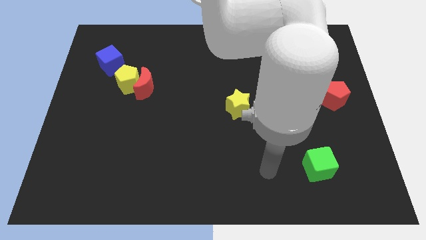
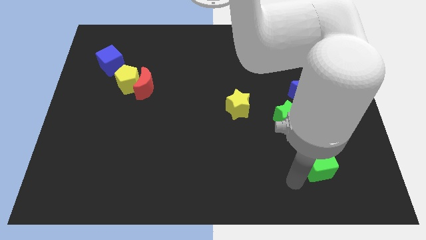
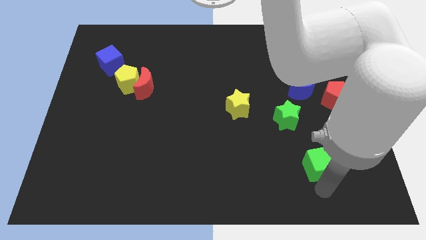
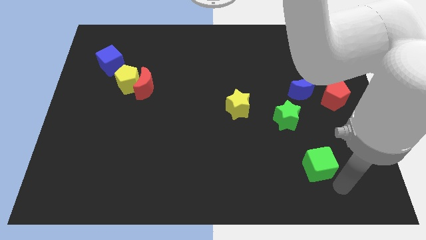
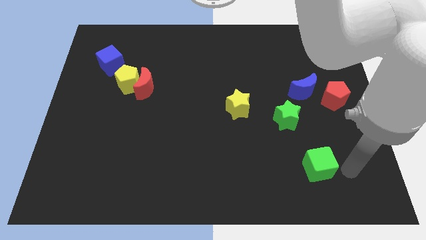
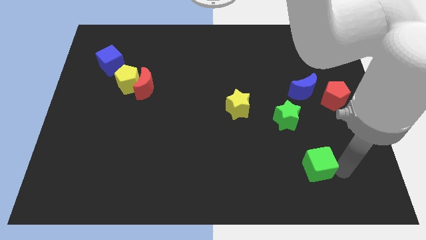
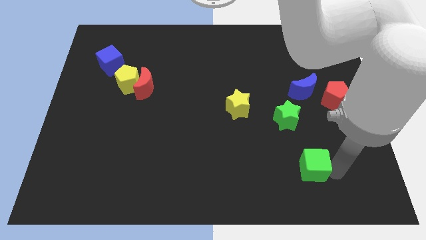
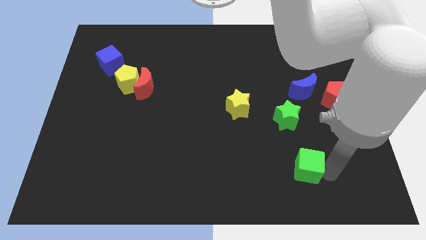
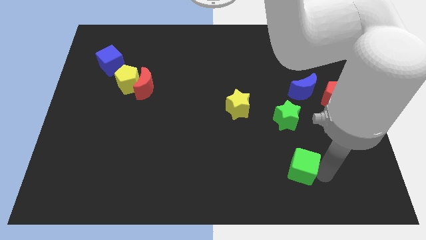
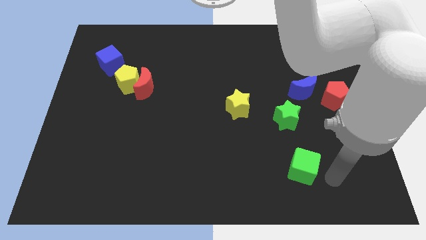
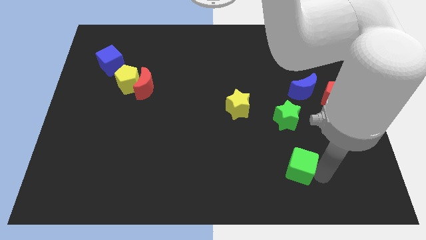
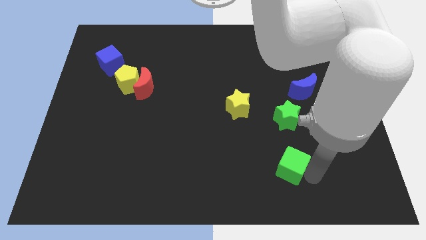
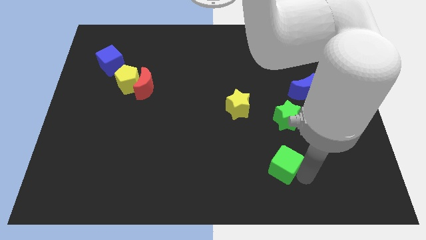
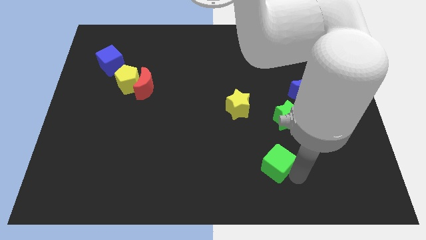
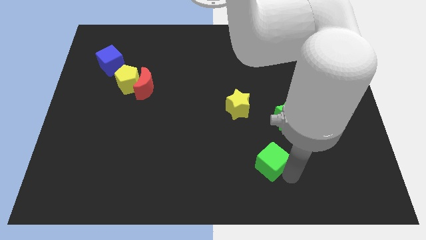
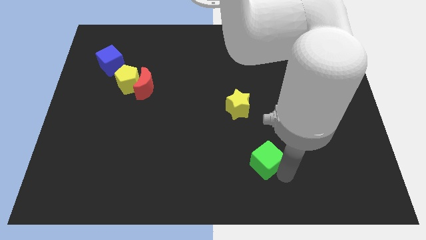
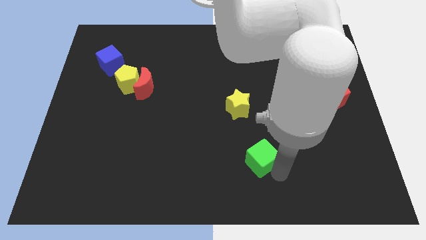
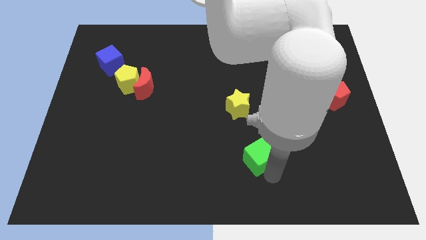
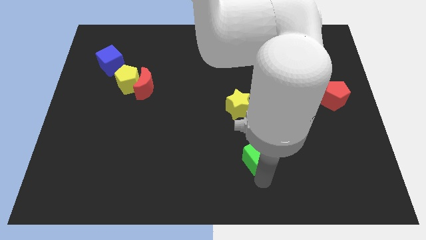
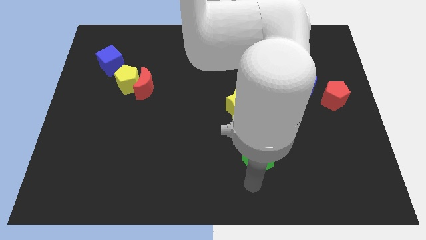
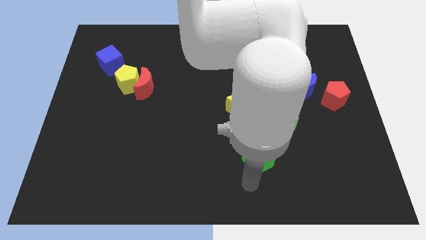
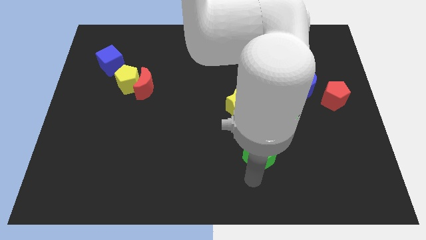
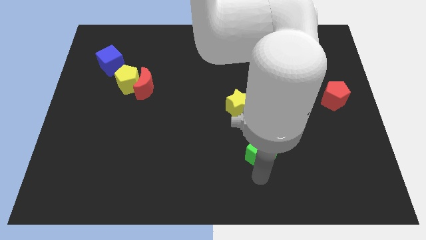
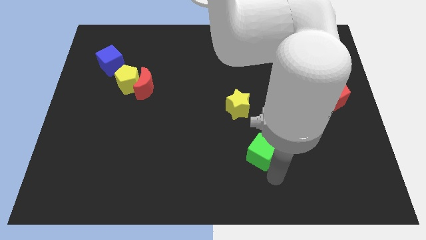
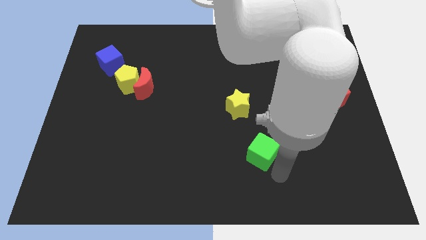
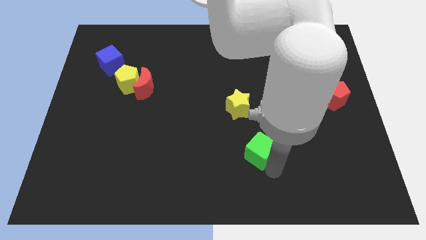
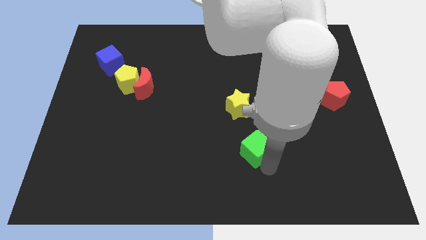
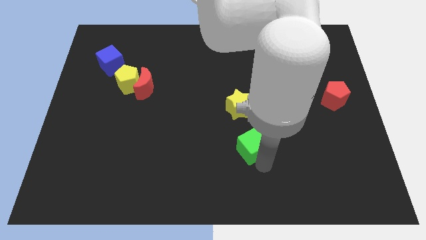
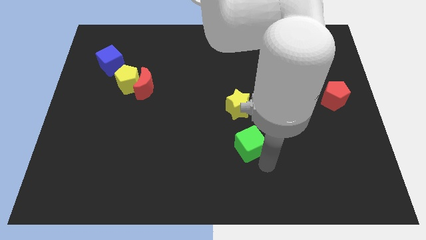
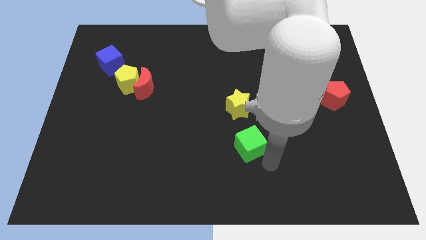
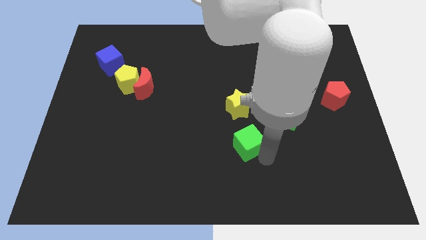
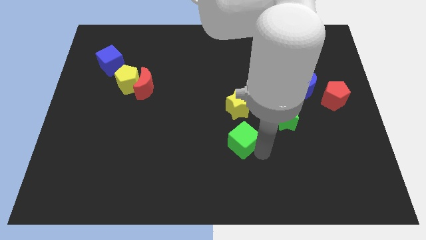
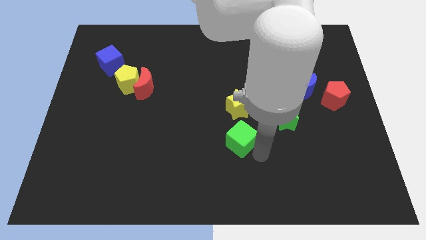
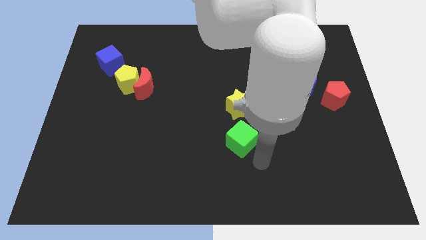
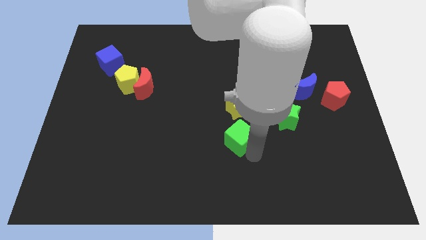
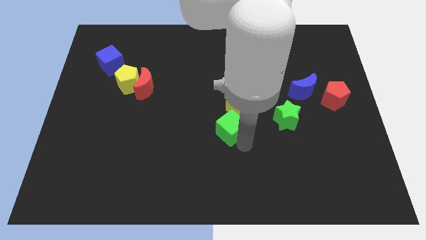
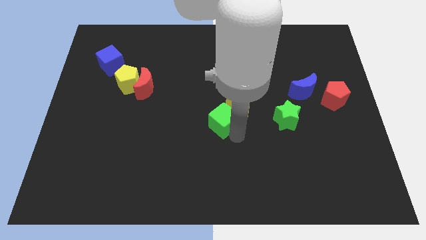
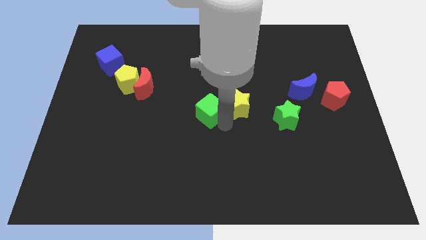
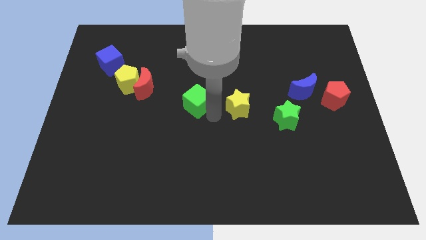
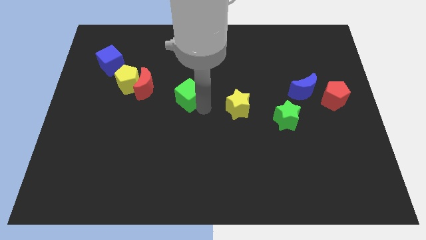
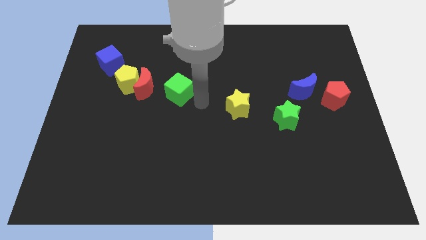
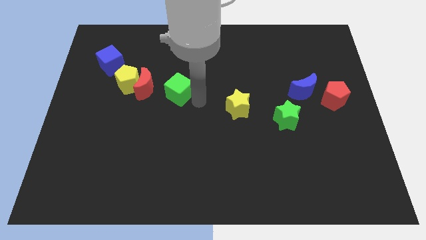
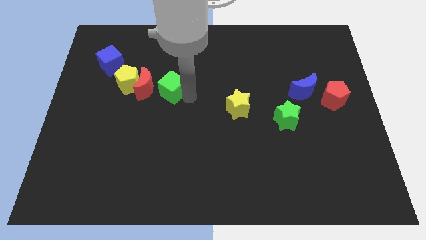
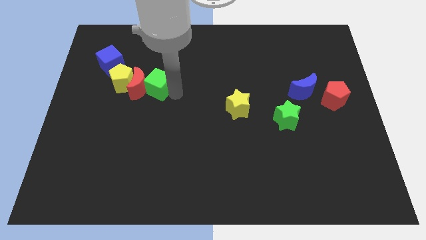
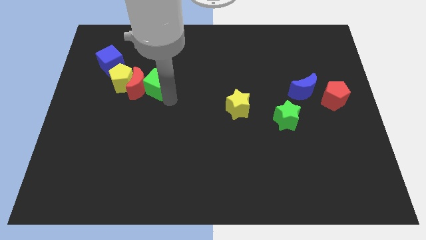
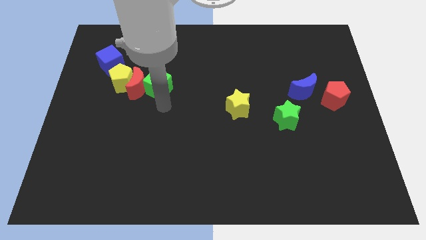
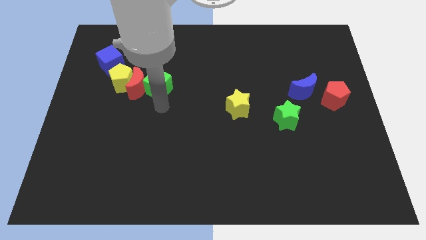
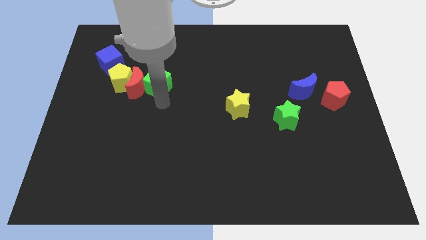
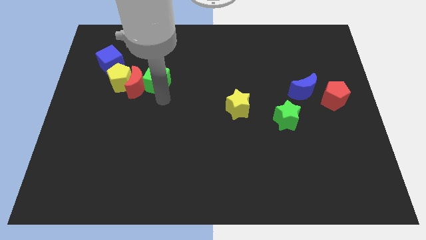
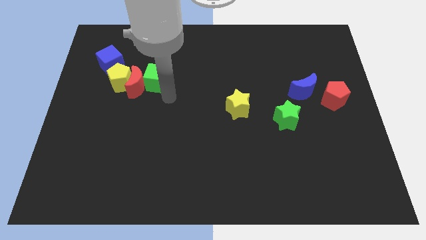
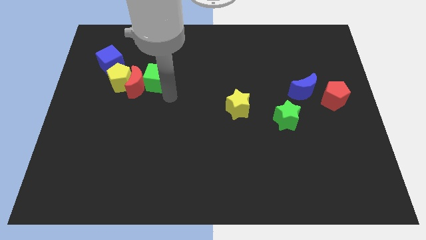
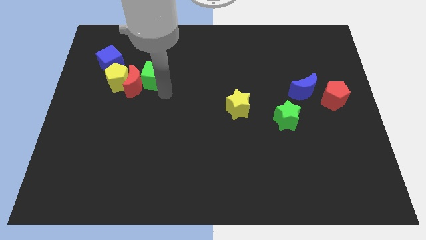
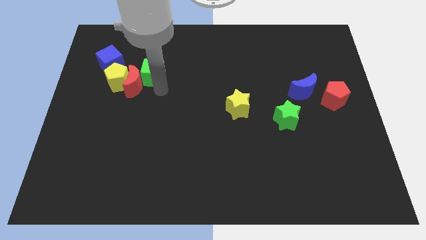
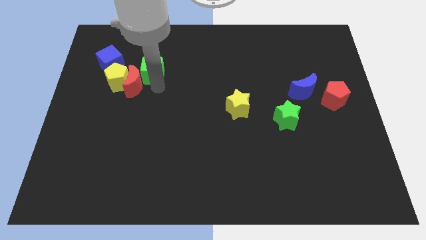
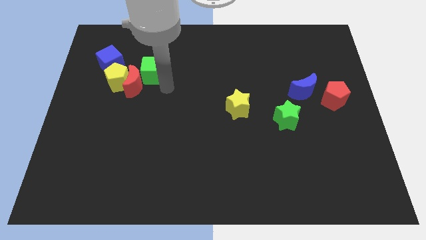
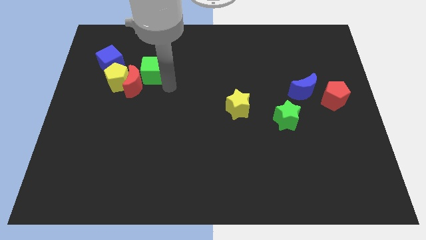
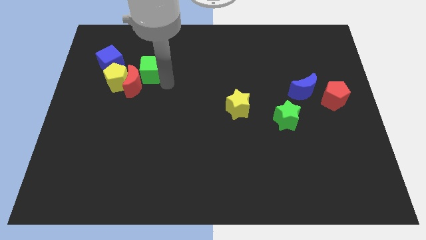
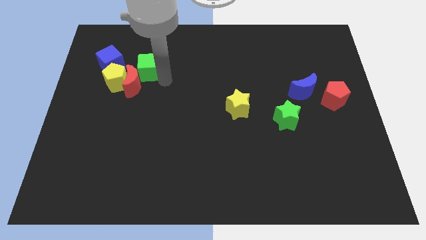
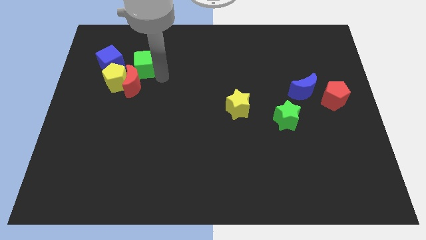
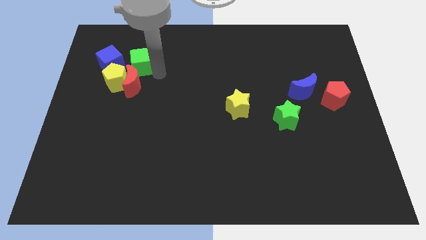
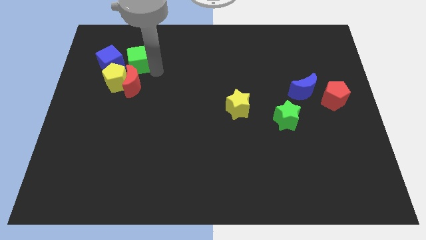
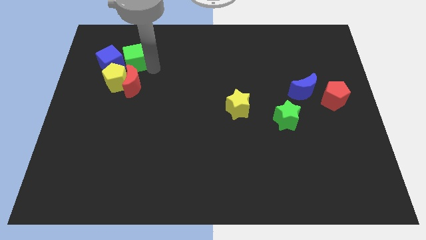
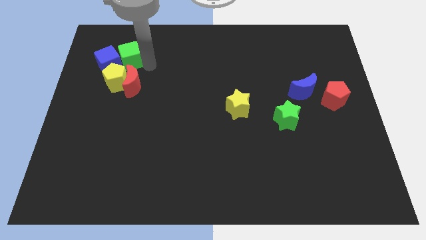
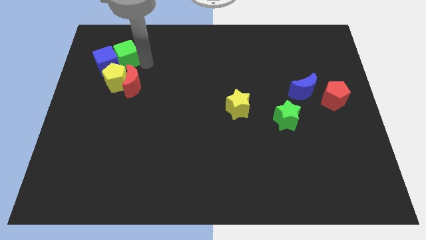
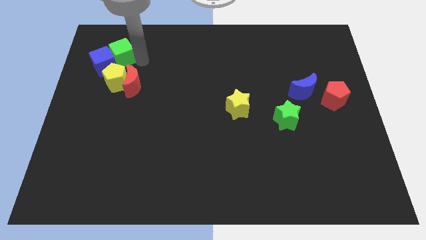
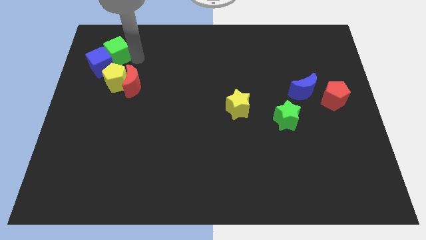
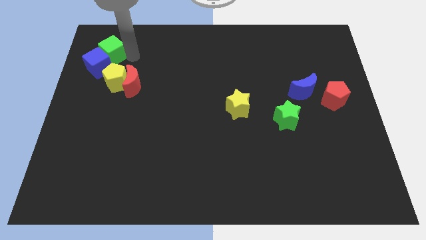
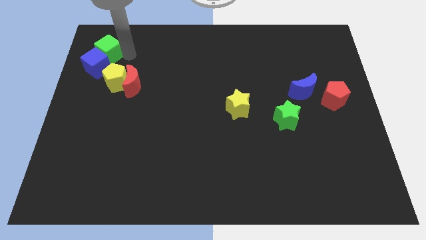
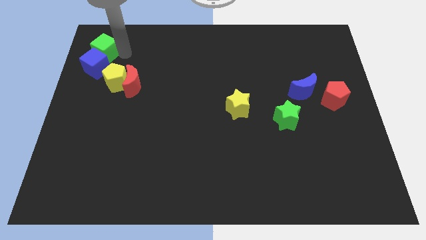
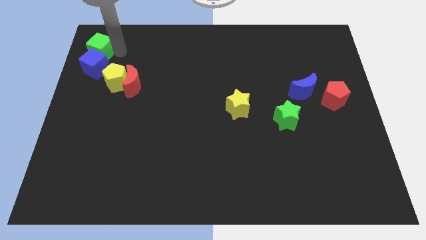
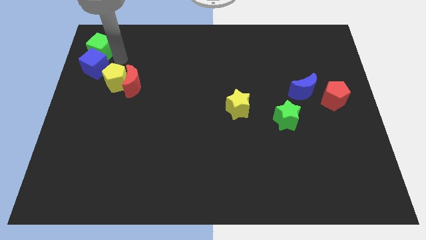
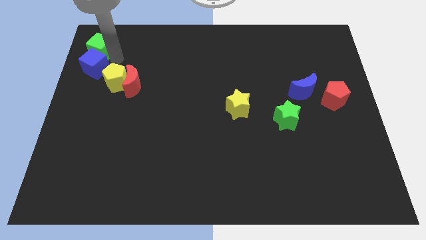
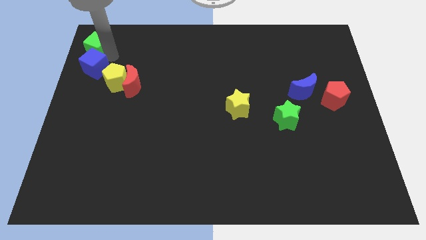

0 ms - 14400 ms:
push the green cube to the top left
